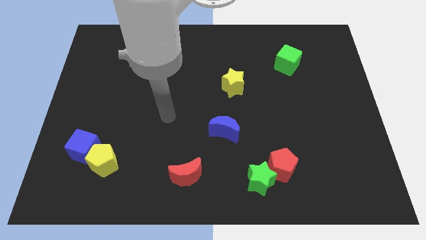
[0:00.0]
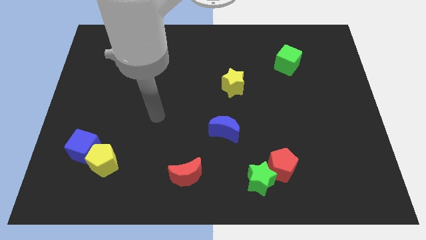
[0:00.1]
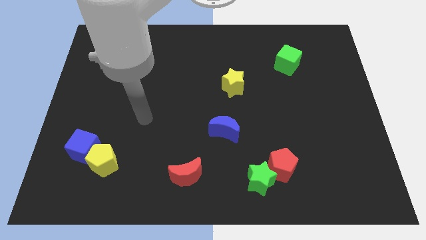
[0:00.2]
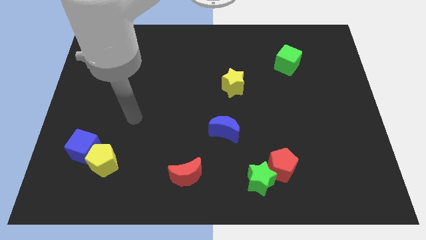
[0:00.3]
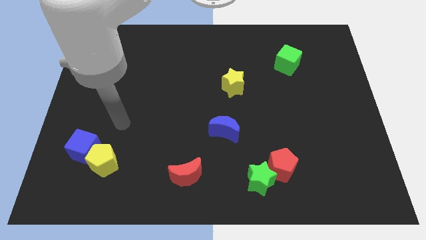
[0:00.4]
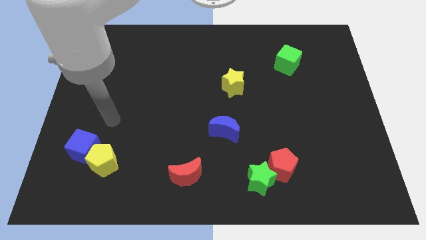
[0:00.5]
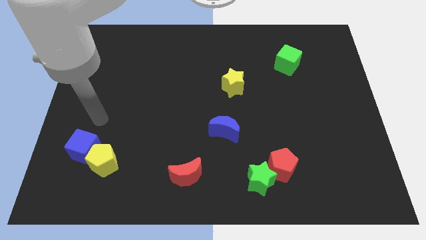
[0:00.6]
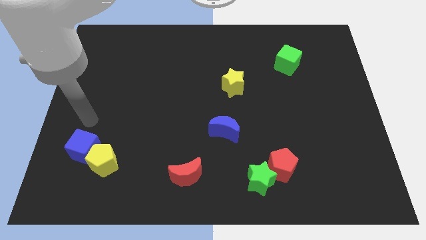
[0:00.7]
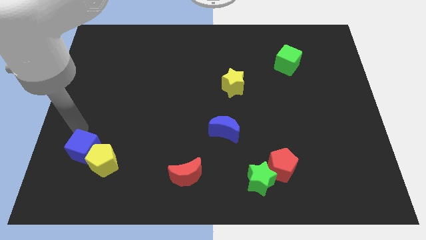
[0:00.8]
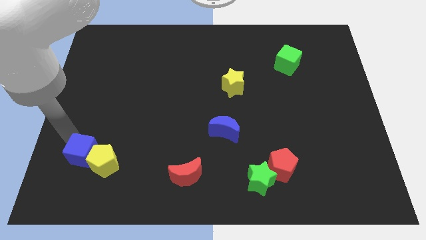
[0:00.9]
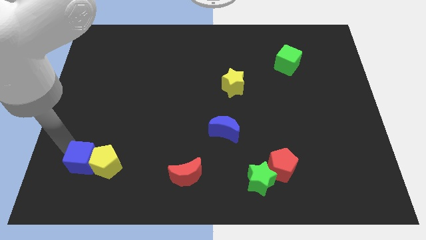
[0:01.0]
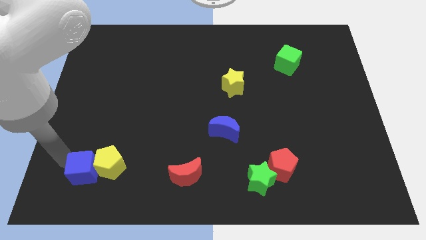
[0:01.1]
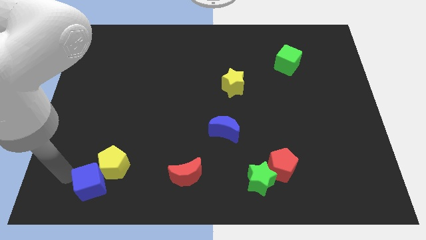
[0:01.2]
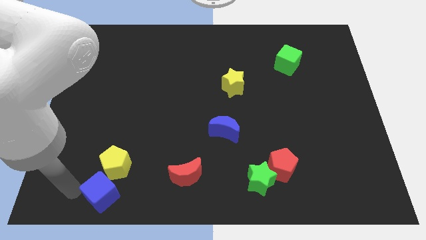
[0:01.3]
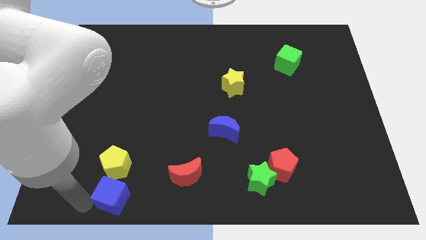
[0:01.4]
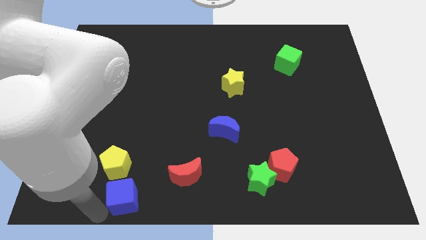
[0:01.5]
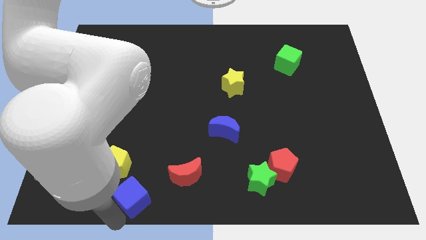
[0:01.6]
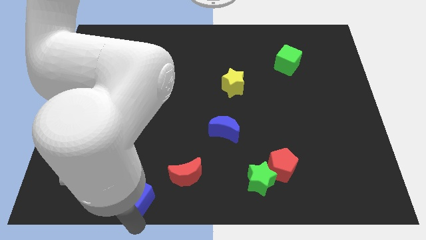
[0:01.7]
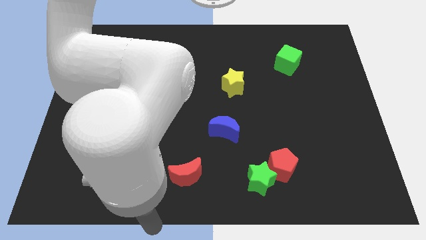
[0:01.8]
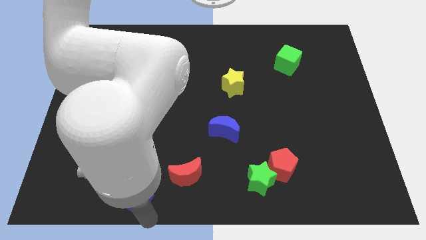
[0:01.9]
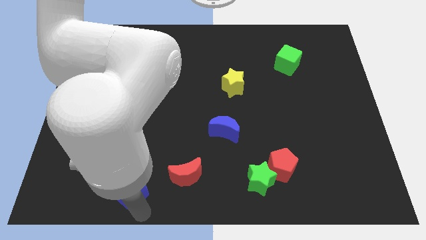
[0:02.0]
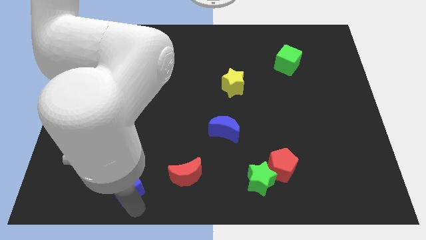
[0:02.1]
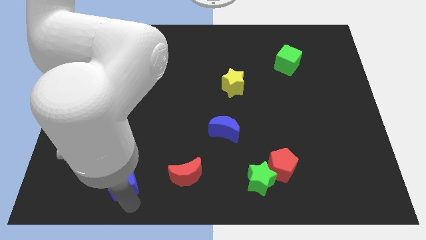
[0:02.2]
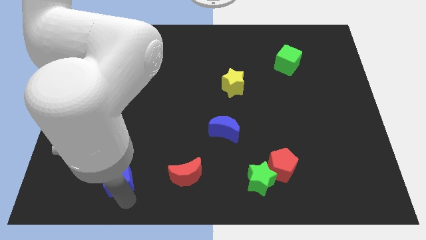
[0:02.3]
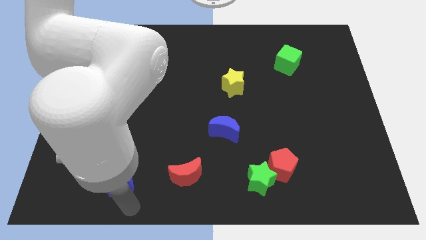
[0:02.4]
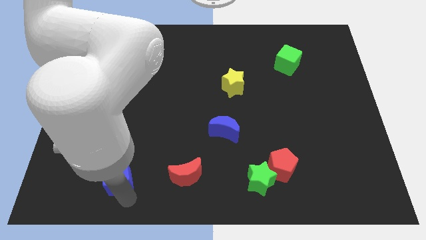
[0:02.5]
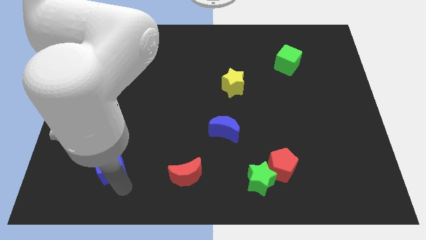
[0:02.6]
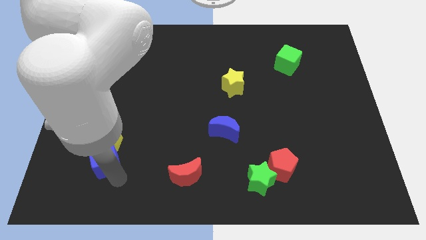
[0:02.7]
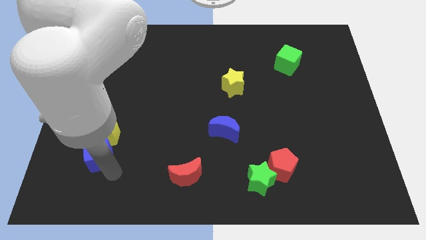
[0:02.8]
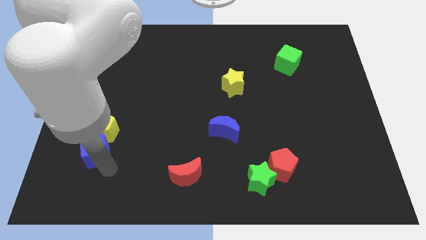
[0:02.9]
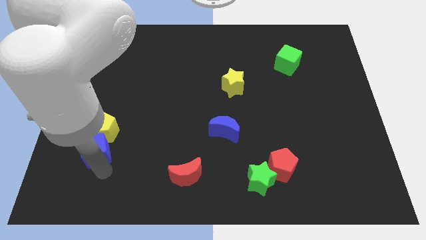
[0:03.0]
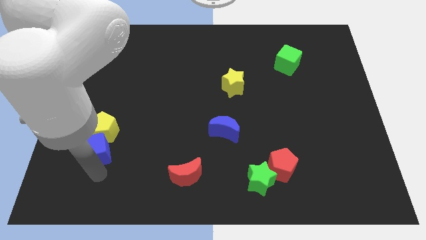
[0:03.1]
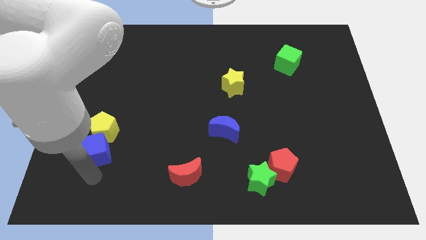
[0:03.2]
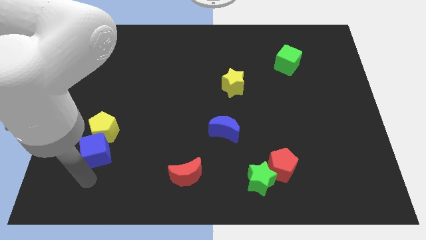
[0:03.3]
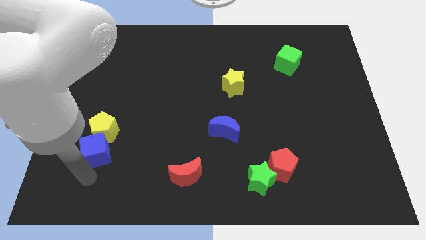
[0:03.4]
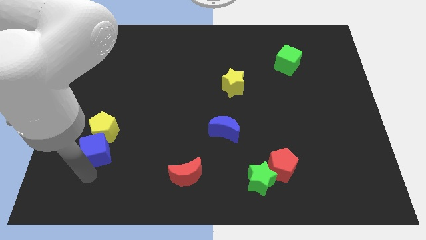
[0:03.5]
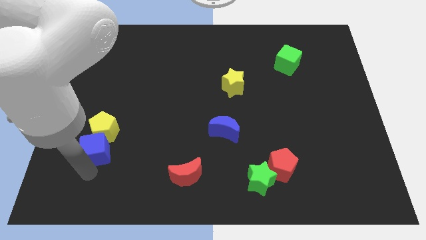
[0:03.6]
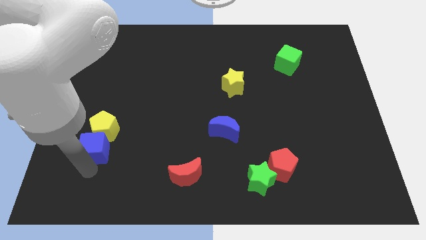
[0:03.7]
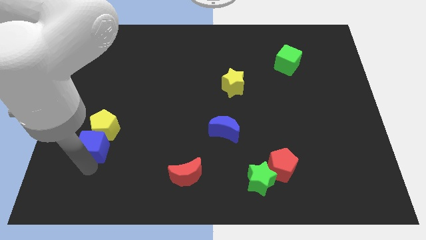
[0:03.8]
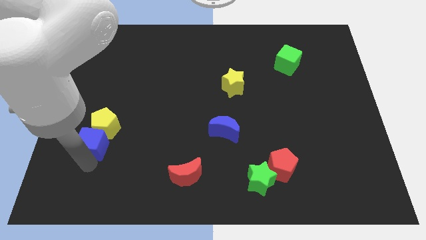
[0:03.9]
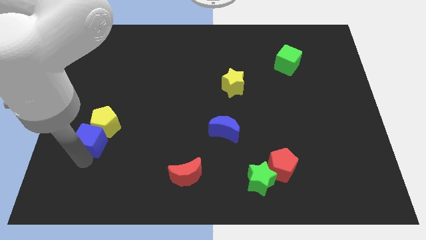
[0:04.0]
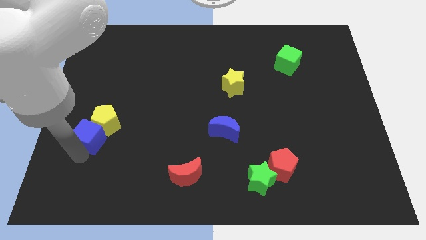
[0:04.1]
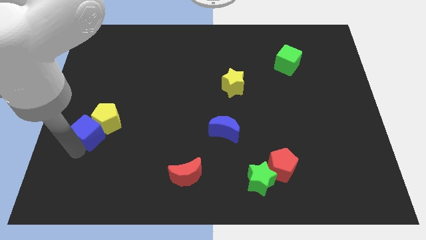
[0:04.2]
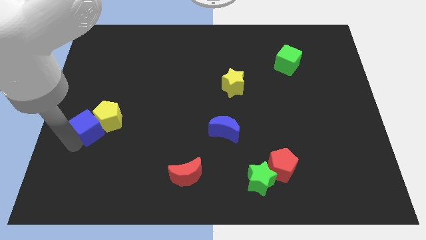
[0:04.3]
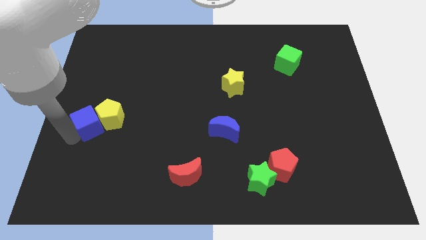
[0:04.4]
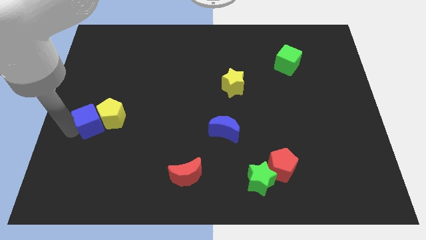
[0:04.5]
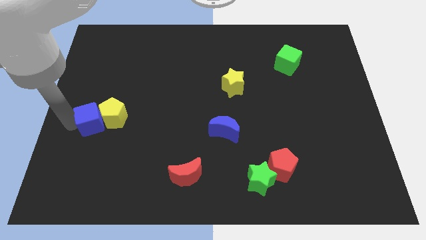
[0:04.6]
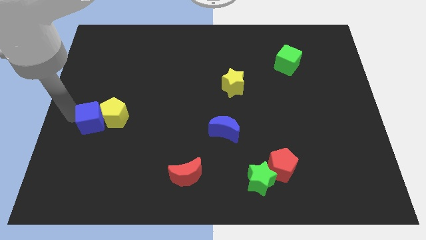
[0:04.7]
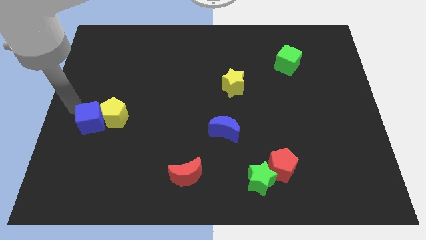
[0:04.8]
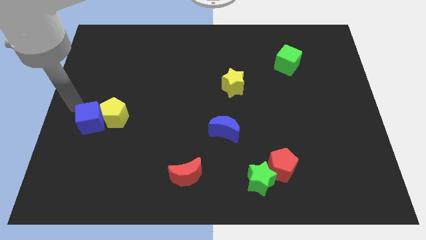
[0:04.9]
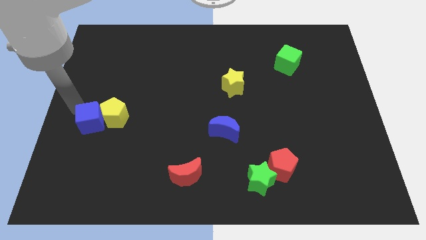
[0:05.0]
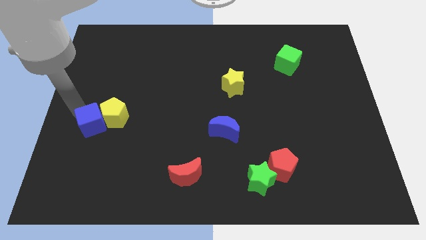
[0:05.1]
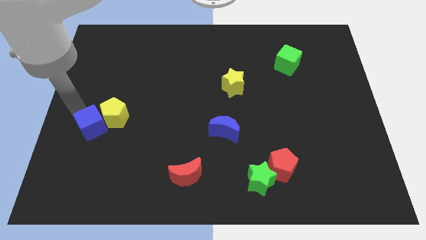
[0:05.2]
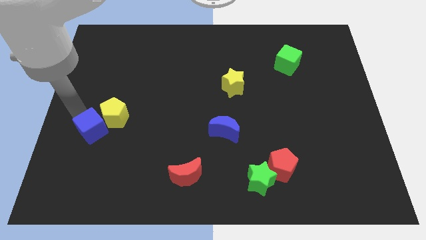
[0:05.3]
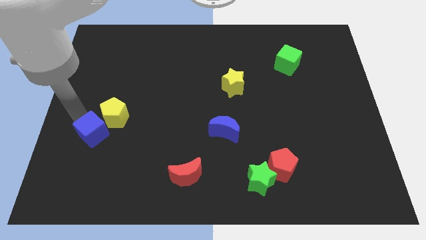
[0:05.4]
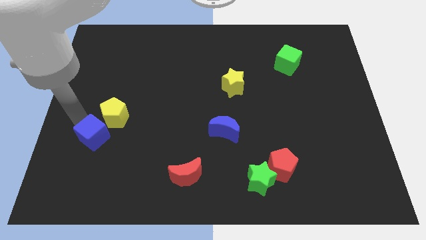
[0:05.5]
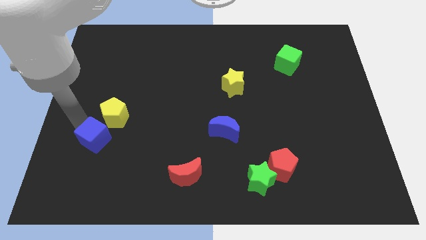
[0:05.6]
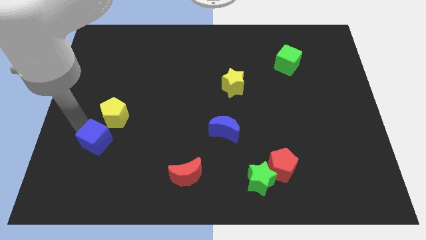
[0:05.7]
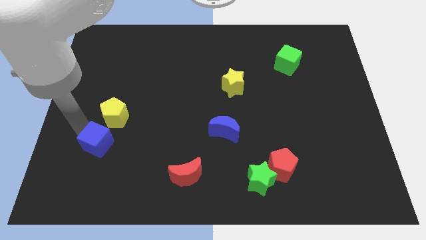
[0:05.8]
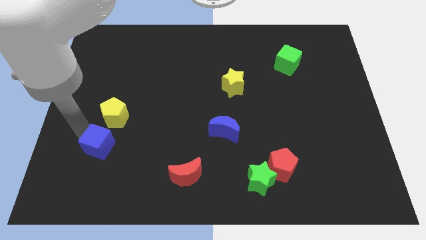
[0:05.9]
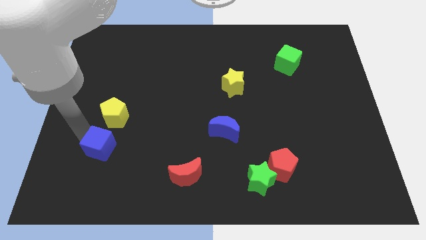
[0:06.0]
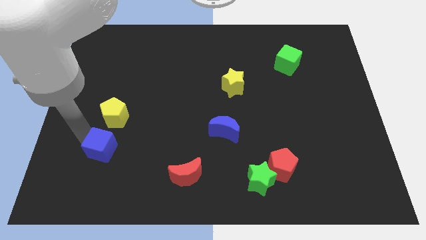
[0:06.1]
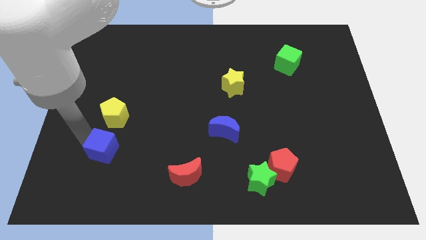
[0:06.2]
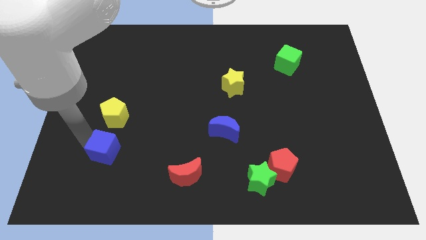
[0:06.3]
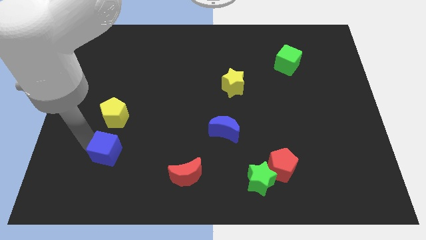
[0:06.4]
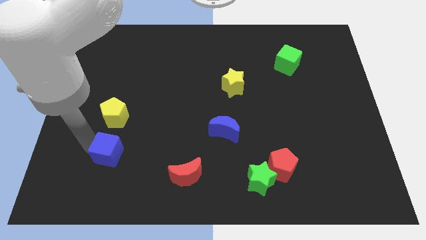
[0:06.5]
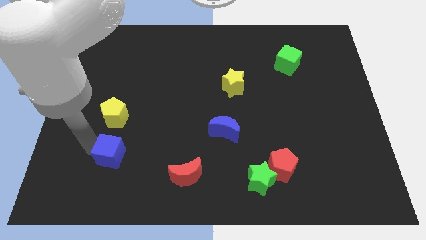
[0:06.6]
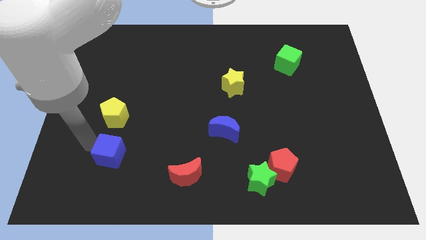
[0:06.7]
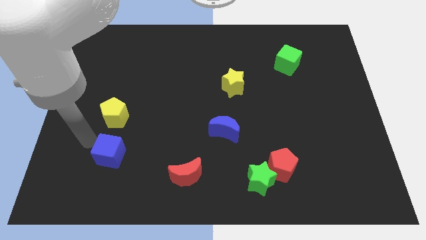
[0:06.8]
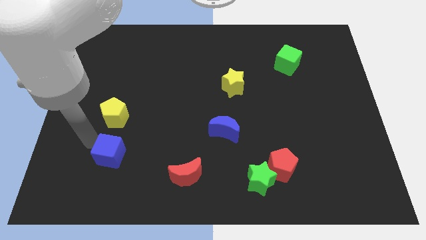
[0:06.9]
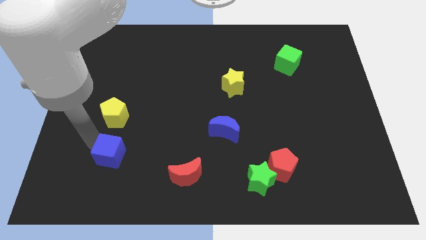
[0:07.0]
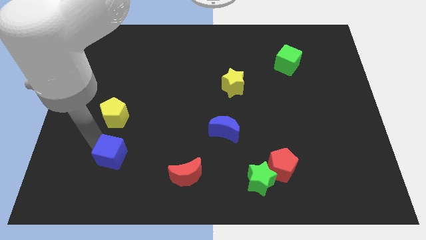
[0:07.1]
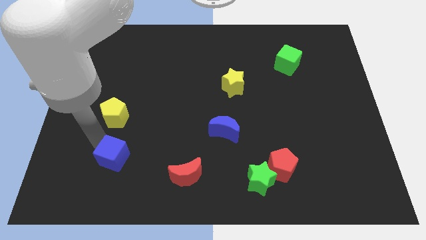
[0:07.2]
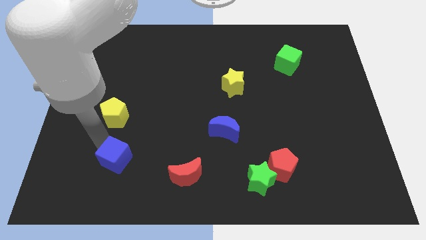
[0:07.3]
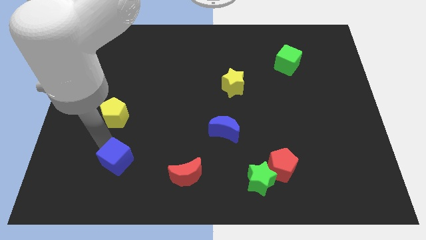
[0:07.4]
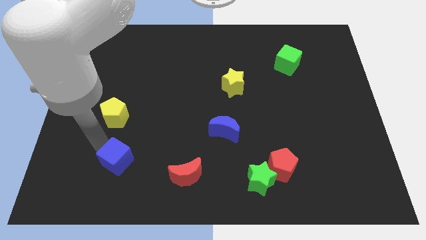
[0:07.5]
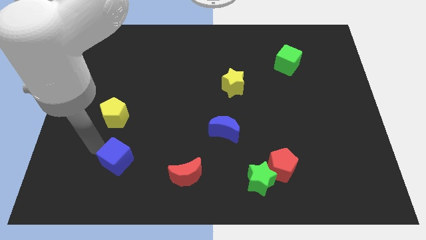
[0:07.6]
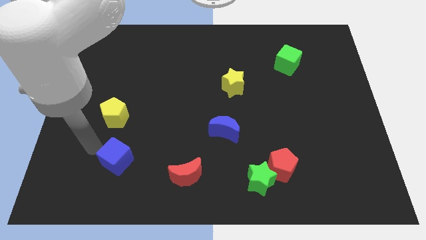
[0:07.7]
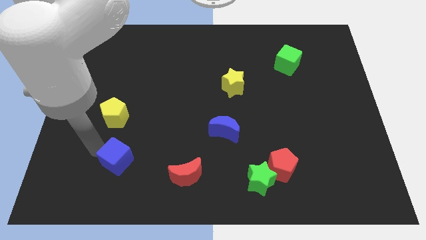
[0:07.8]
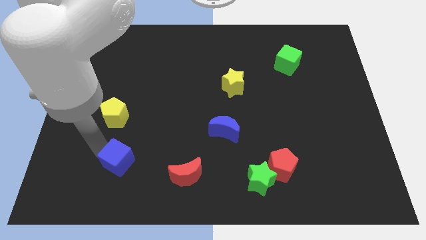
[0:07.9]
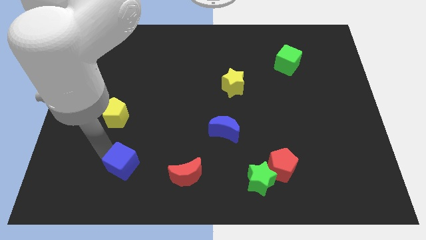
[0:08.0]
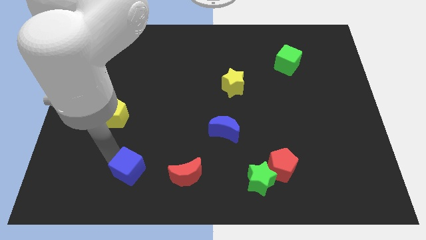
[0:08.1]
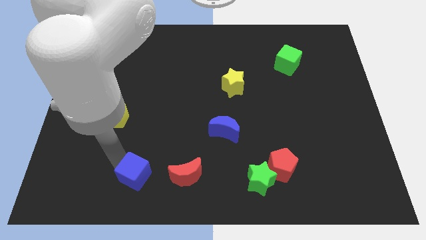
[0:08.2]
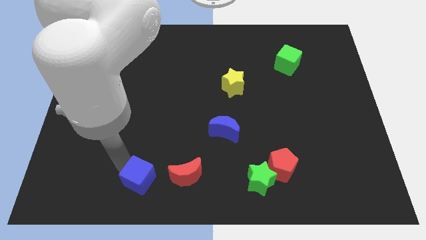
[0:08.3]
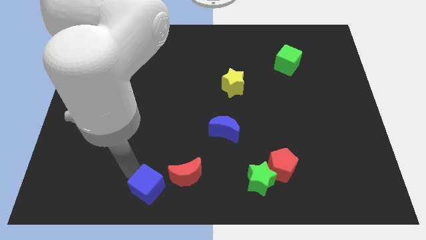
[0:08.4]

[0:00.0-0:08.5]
put the blue cube to the bottom
